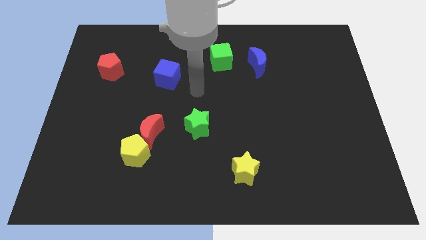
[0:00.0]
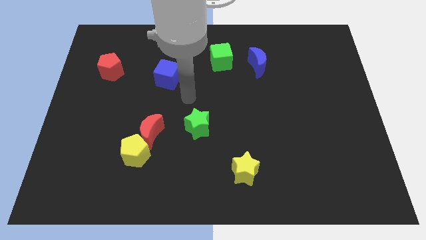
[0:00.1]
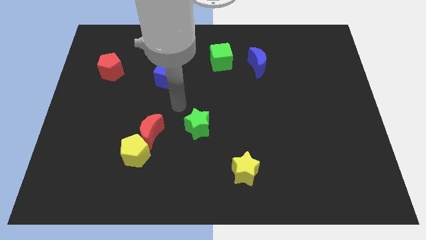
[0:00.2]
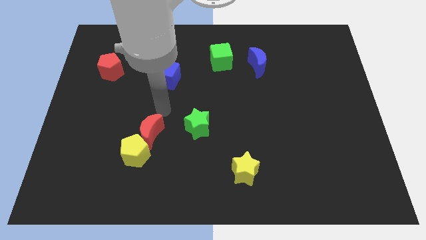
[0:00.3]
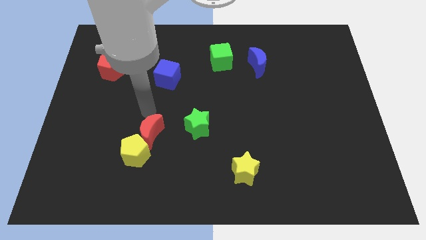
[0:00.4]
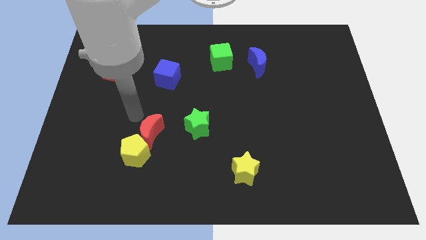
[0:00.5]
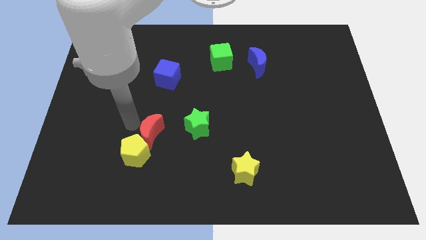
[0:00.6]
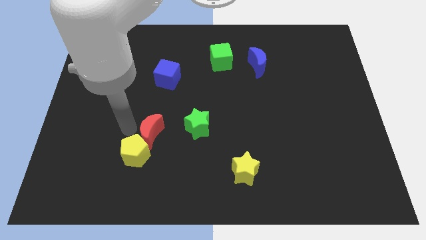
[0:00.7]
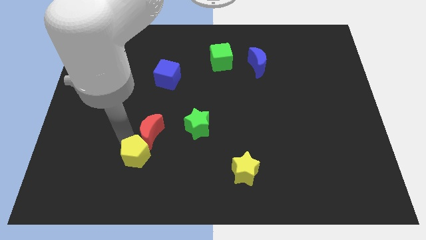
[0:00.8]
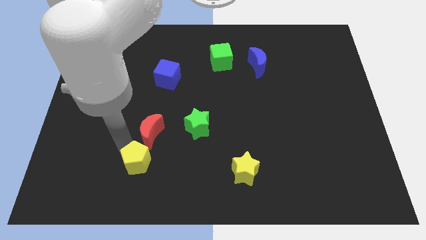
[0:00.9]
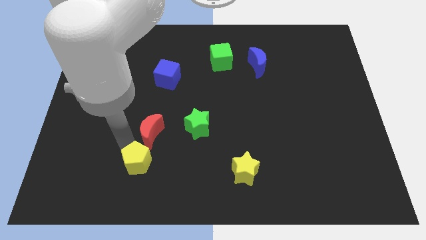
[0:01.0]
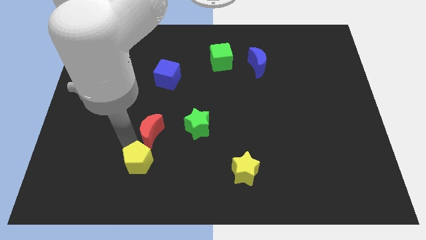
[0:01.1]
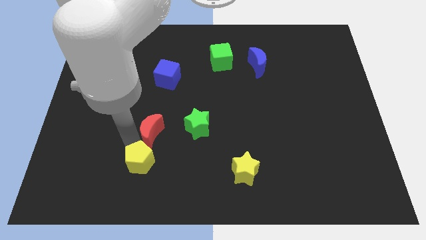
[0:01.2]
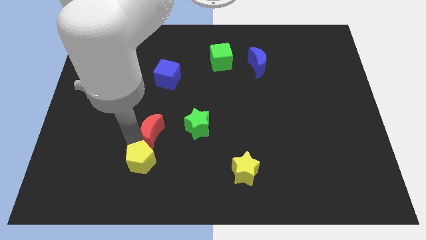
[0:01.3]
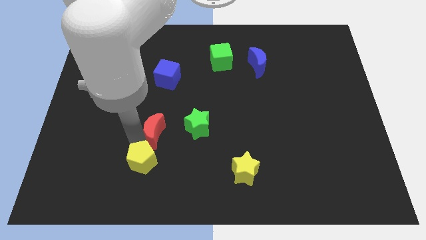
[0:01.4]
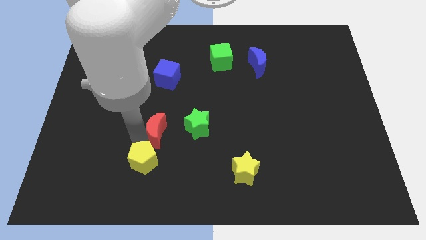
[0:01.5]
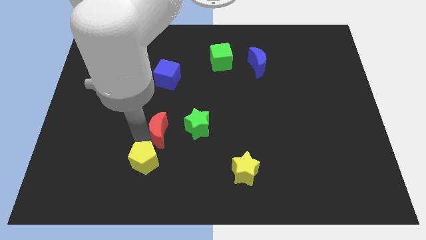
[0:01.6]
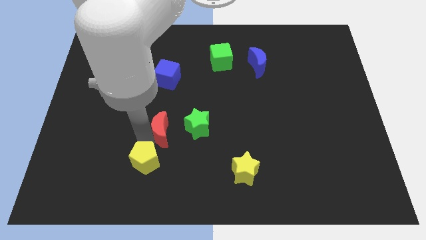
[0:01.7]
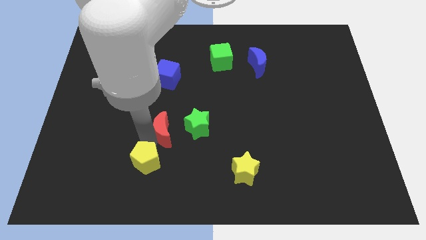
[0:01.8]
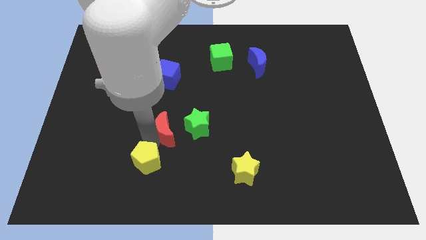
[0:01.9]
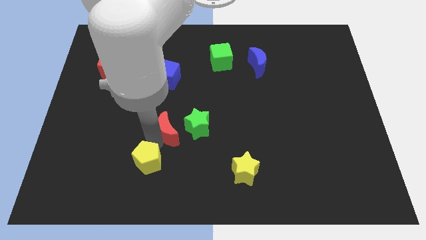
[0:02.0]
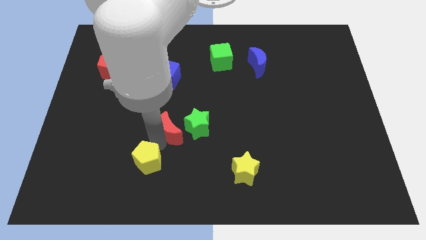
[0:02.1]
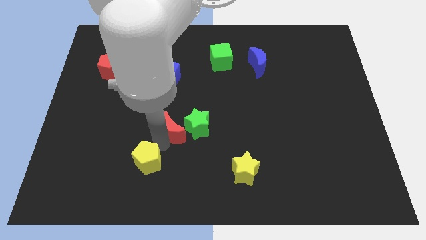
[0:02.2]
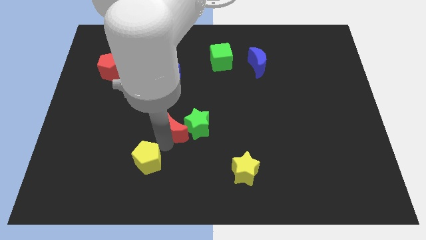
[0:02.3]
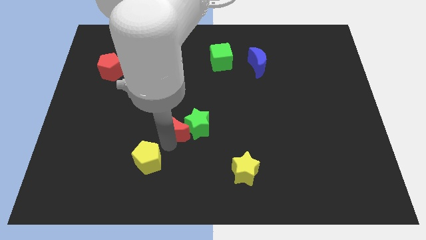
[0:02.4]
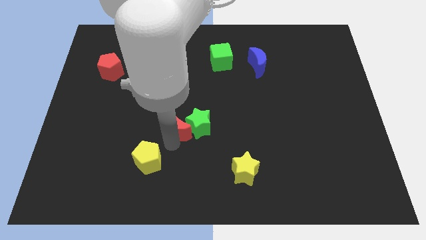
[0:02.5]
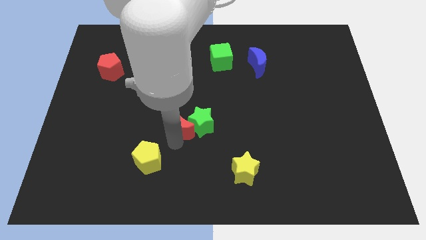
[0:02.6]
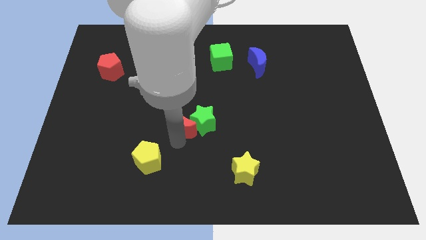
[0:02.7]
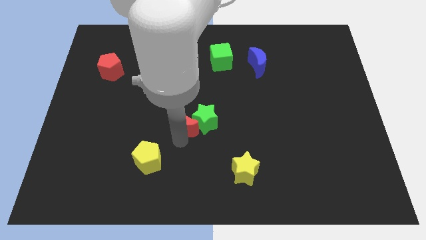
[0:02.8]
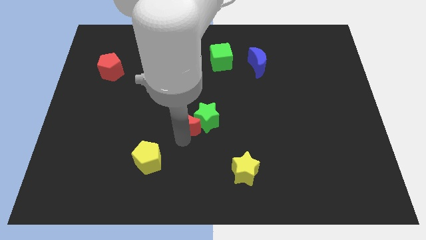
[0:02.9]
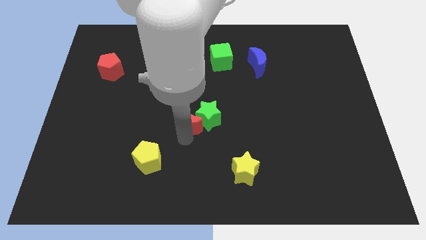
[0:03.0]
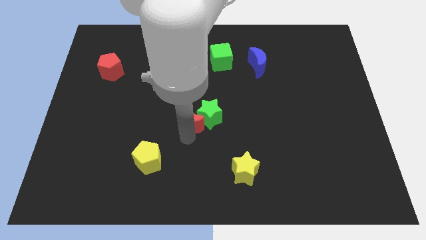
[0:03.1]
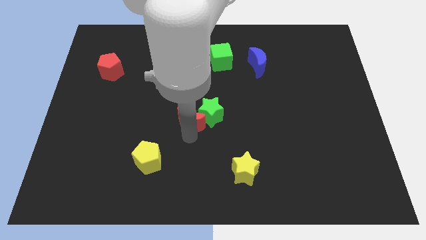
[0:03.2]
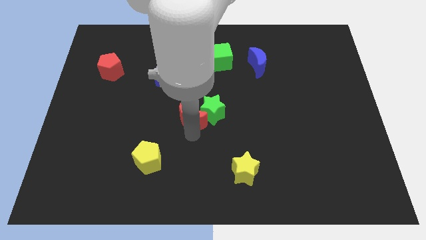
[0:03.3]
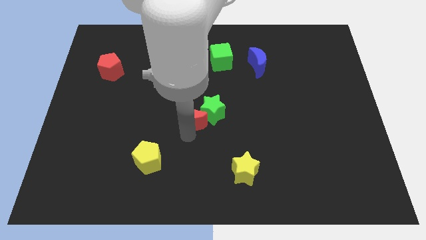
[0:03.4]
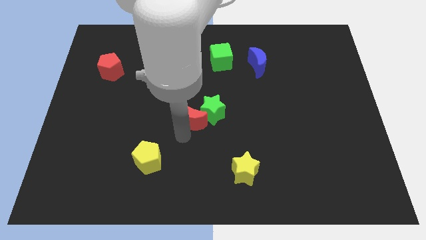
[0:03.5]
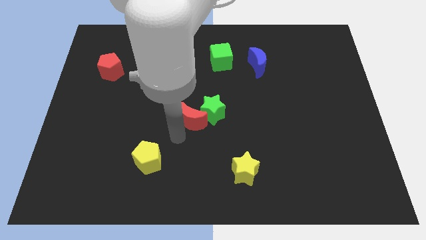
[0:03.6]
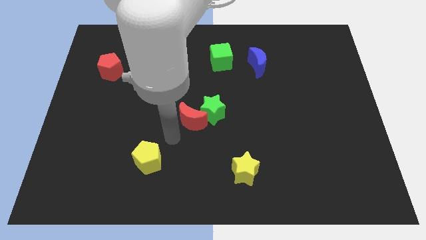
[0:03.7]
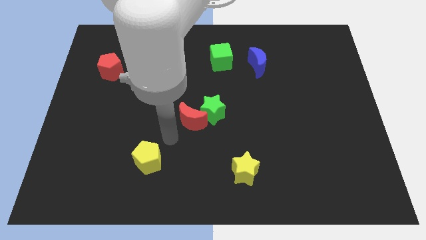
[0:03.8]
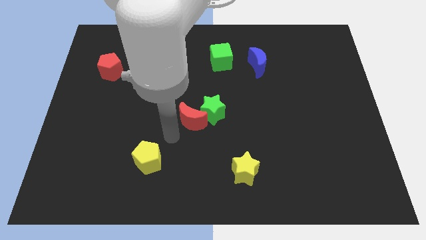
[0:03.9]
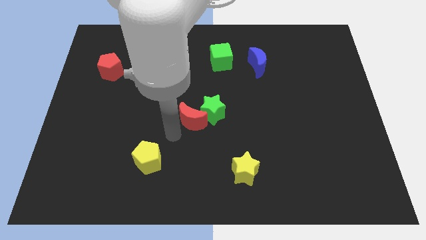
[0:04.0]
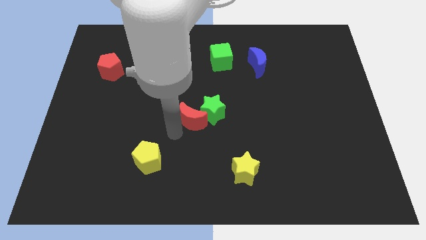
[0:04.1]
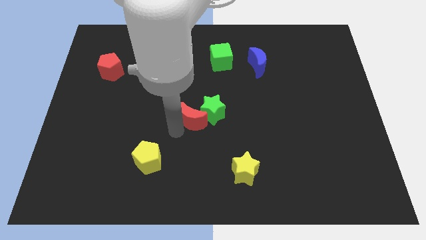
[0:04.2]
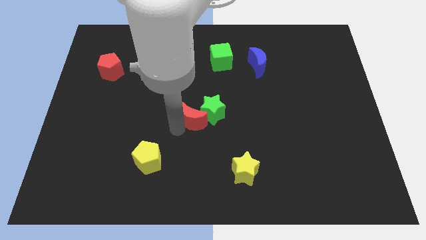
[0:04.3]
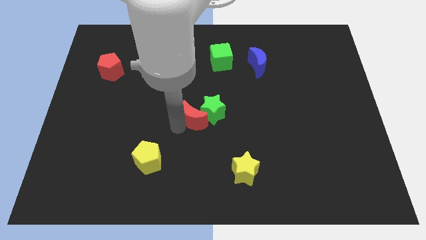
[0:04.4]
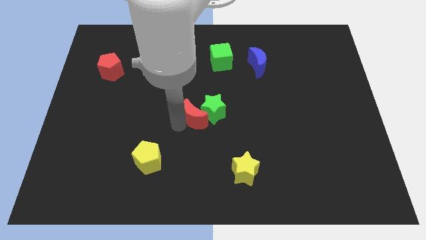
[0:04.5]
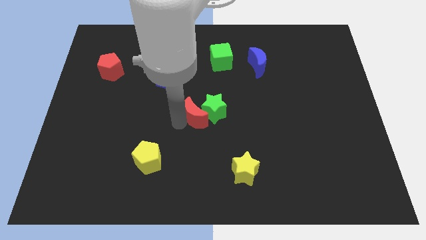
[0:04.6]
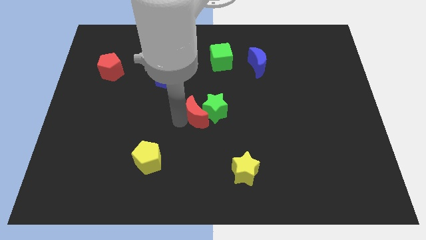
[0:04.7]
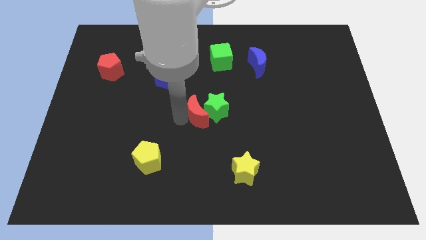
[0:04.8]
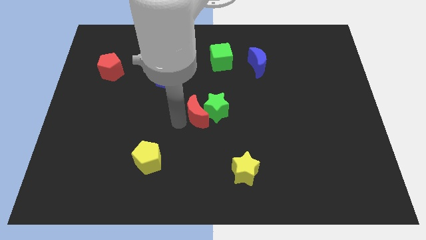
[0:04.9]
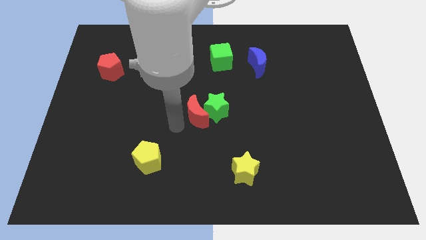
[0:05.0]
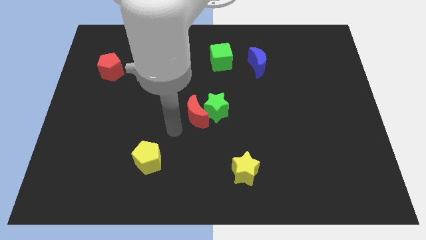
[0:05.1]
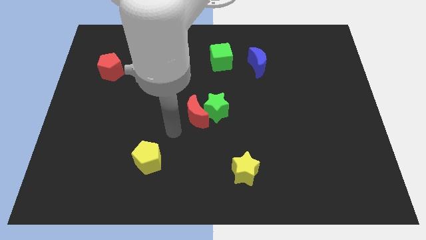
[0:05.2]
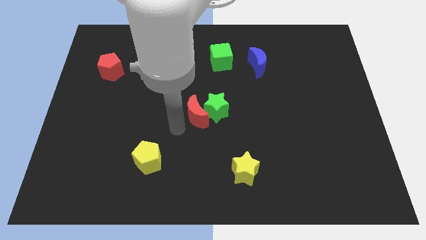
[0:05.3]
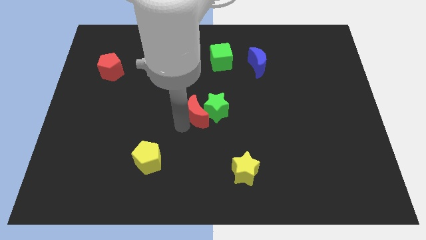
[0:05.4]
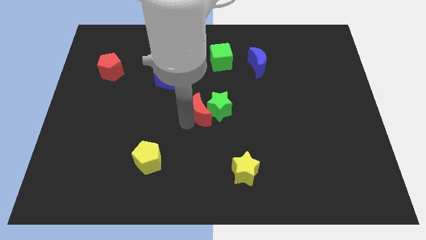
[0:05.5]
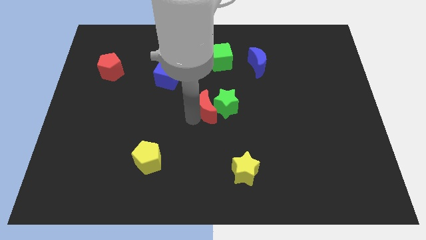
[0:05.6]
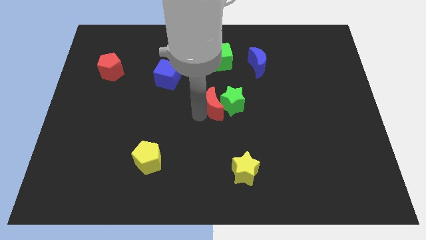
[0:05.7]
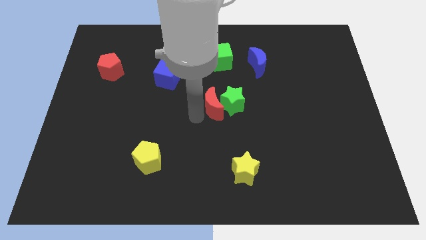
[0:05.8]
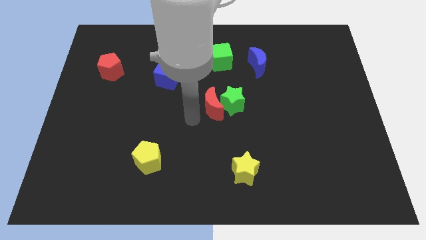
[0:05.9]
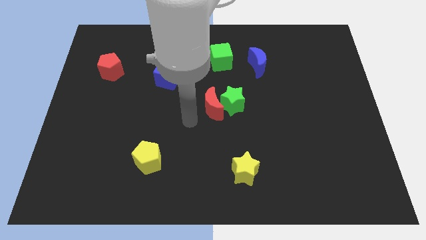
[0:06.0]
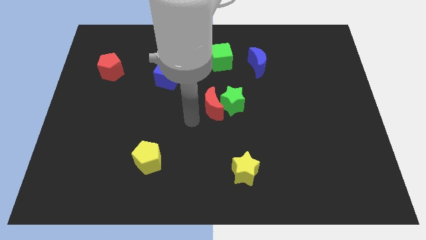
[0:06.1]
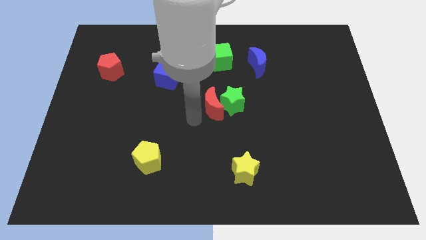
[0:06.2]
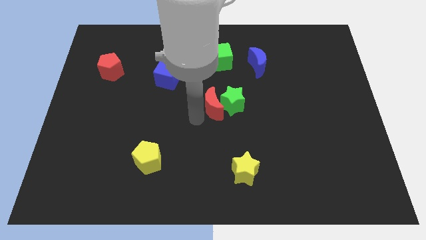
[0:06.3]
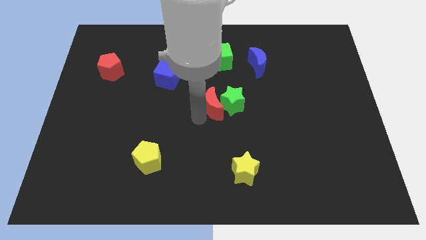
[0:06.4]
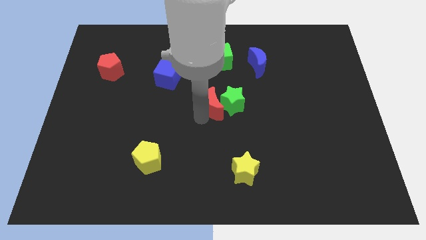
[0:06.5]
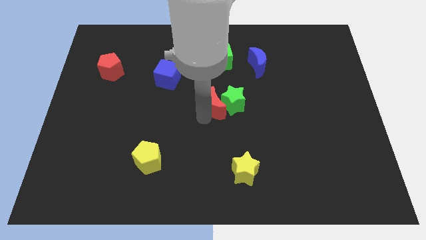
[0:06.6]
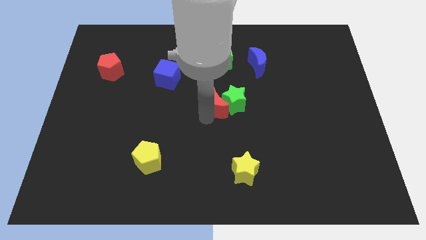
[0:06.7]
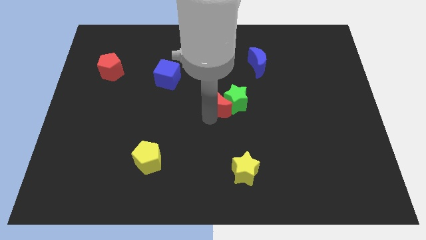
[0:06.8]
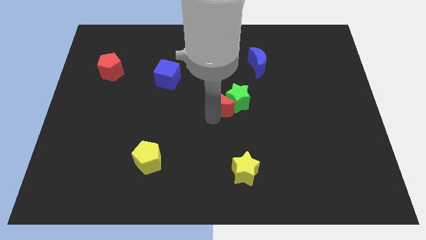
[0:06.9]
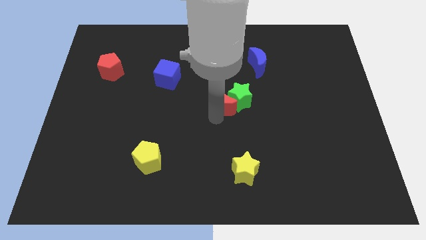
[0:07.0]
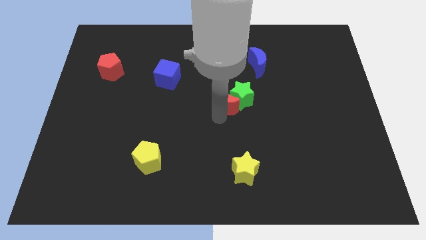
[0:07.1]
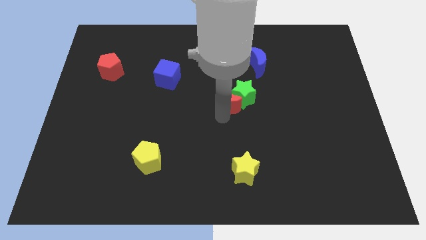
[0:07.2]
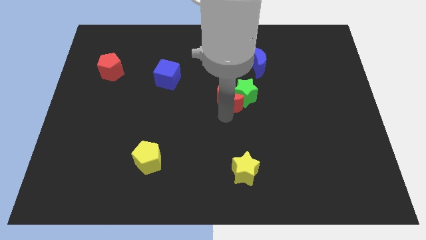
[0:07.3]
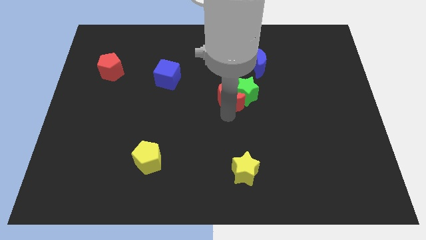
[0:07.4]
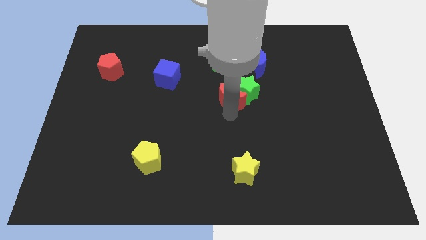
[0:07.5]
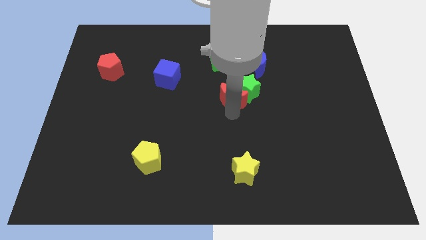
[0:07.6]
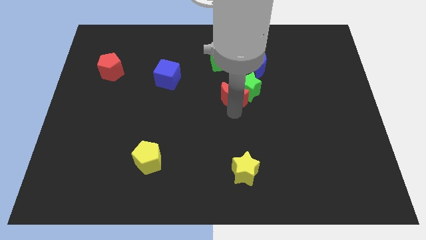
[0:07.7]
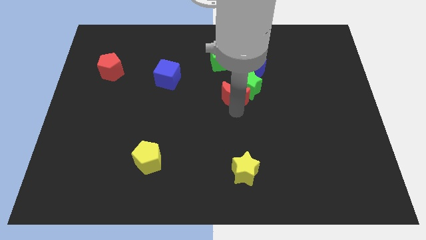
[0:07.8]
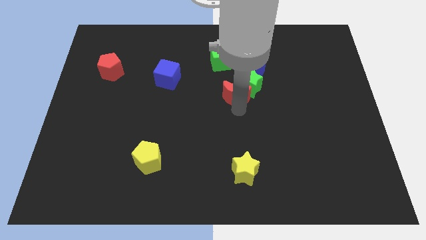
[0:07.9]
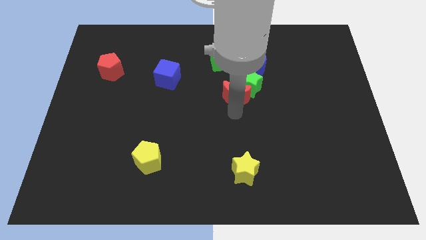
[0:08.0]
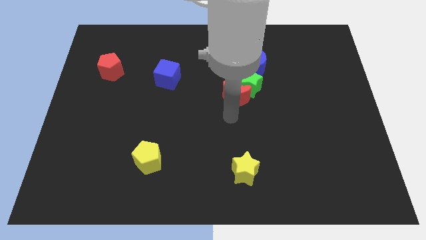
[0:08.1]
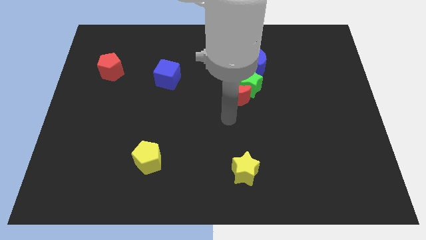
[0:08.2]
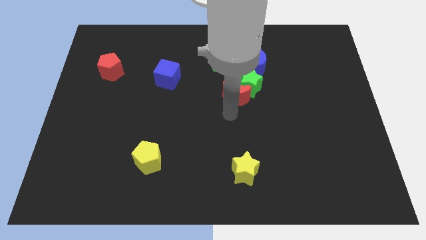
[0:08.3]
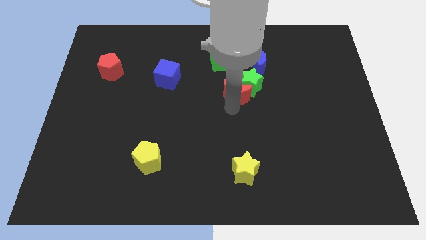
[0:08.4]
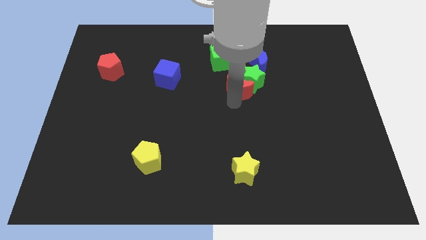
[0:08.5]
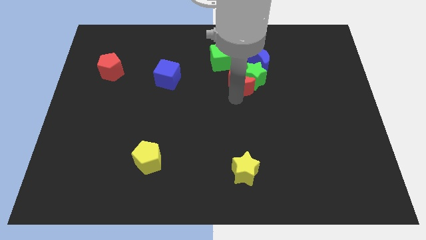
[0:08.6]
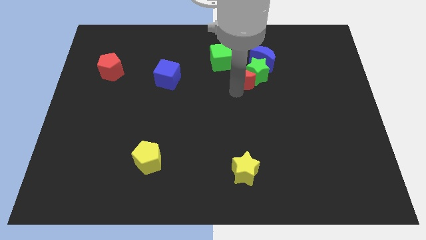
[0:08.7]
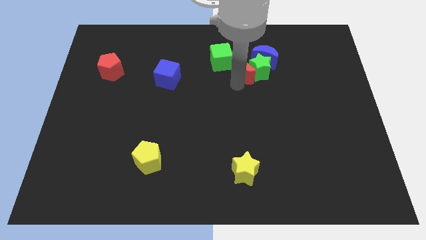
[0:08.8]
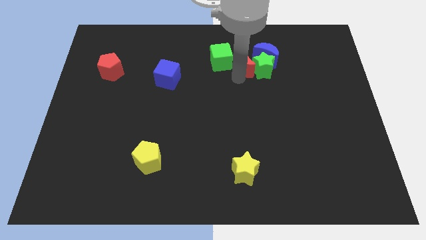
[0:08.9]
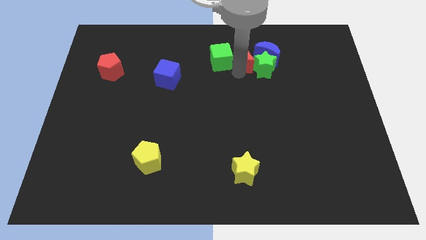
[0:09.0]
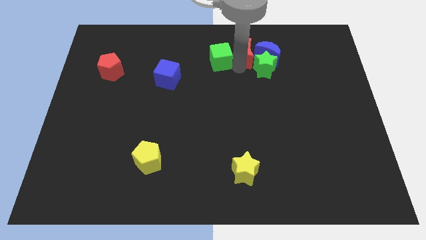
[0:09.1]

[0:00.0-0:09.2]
slide the red moon next to the blue moon
